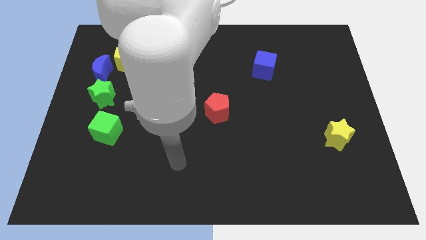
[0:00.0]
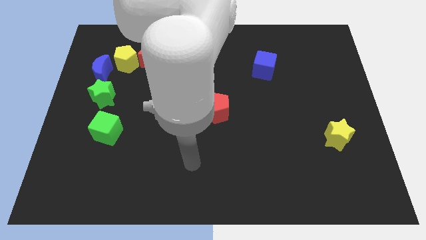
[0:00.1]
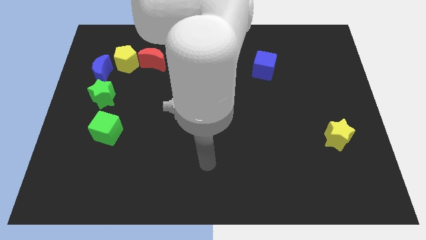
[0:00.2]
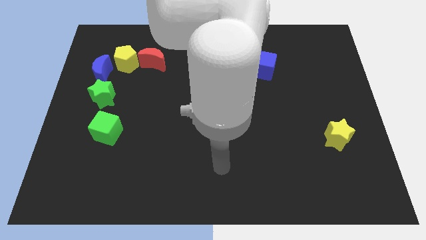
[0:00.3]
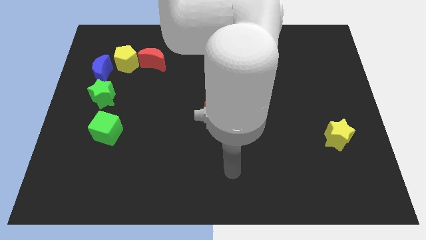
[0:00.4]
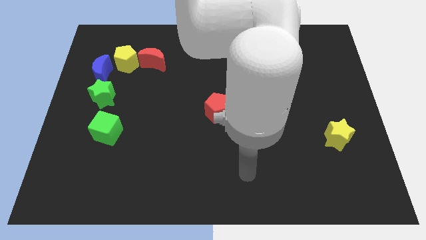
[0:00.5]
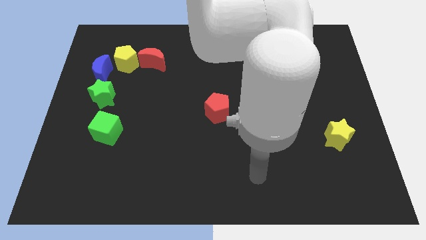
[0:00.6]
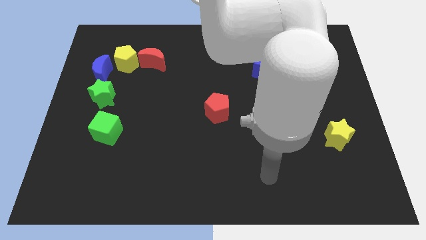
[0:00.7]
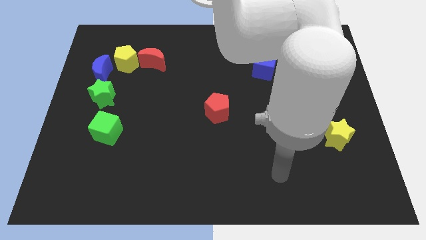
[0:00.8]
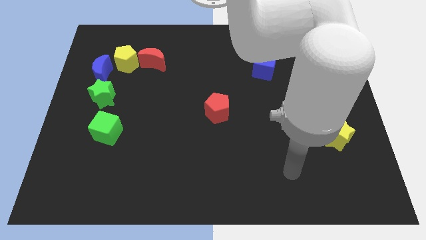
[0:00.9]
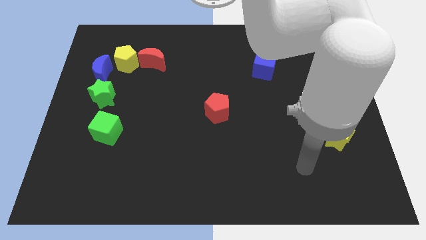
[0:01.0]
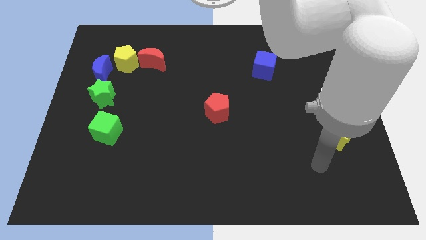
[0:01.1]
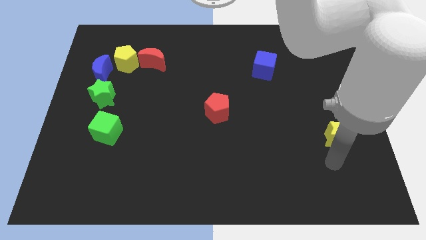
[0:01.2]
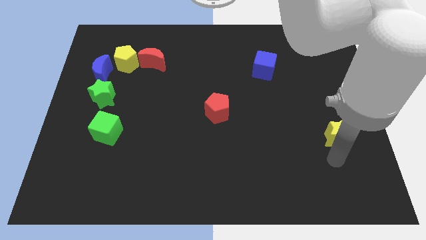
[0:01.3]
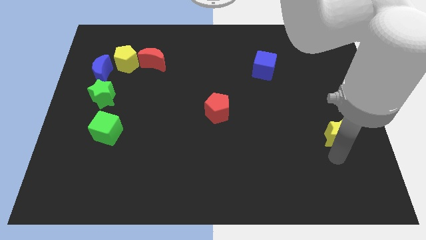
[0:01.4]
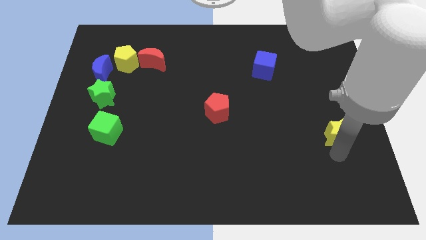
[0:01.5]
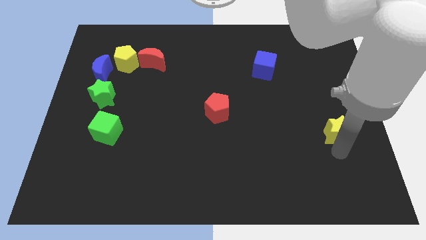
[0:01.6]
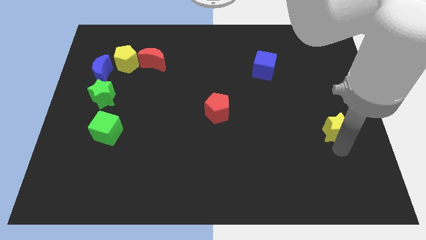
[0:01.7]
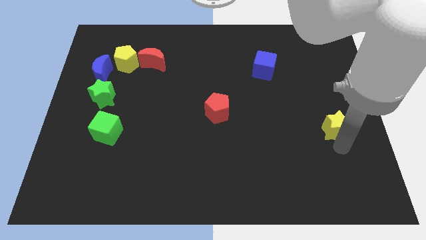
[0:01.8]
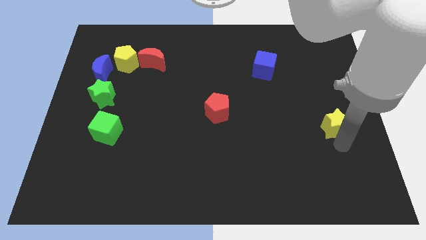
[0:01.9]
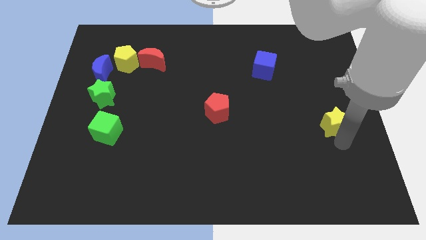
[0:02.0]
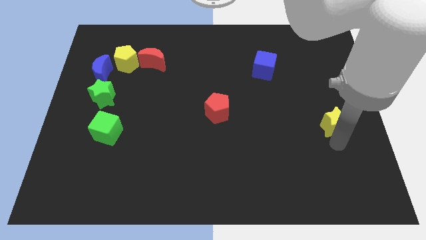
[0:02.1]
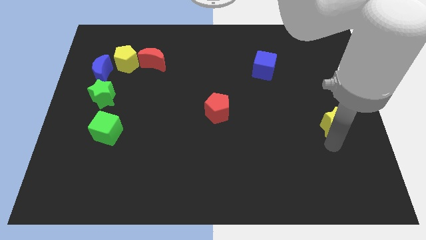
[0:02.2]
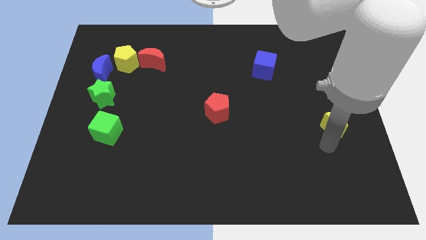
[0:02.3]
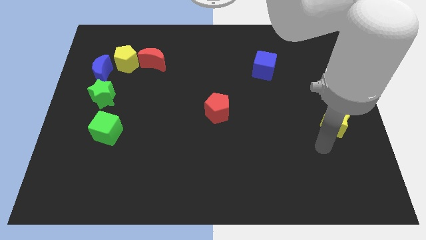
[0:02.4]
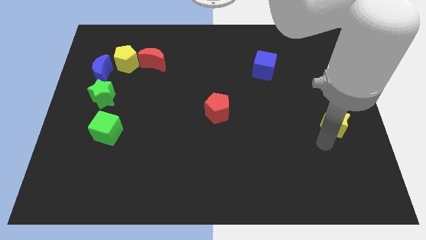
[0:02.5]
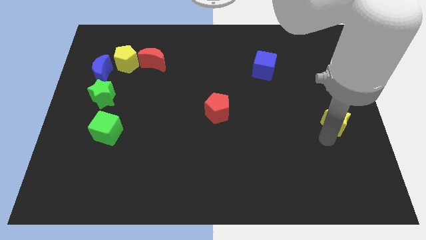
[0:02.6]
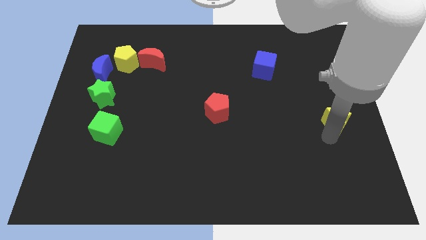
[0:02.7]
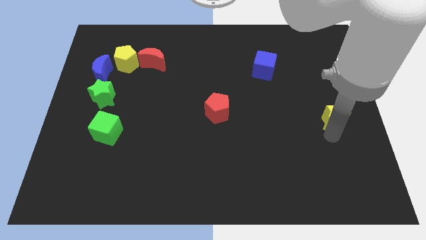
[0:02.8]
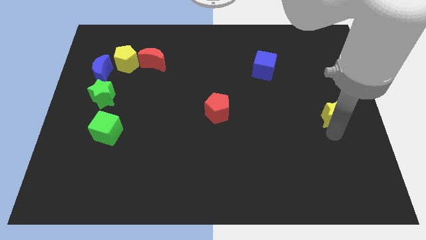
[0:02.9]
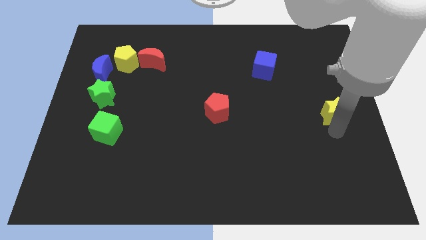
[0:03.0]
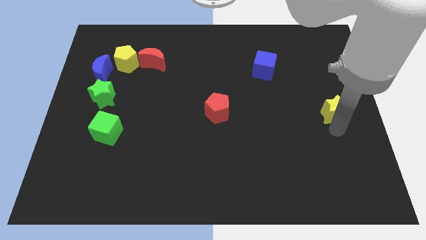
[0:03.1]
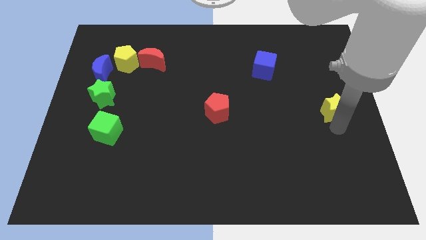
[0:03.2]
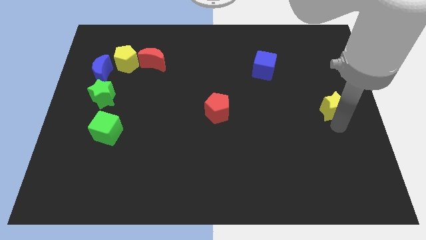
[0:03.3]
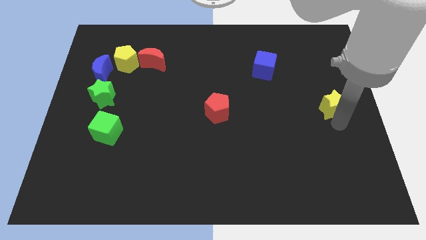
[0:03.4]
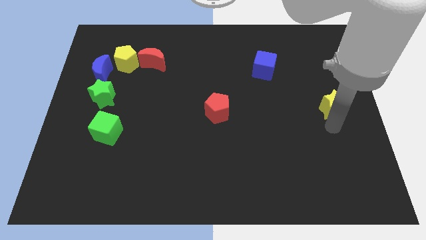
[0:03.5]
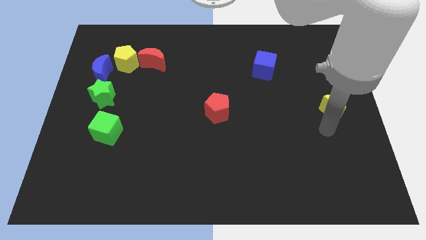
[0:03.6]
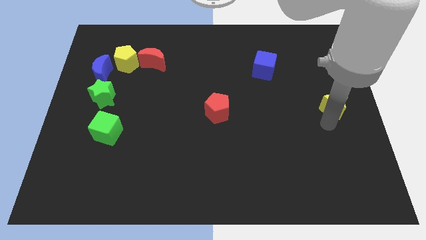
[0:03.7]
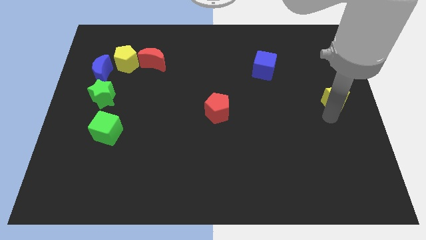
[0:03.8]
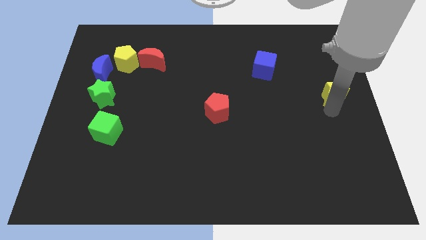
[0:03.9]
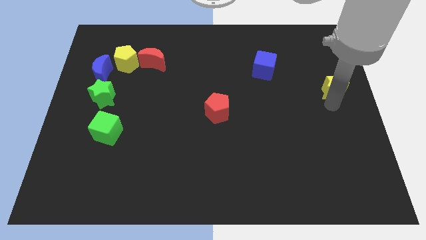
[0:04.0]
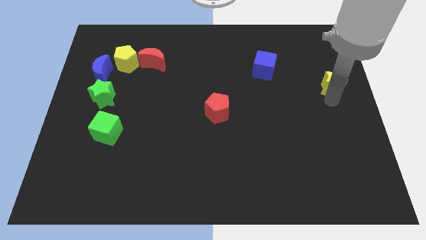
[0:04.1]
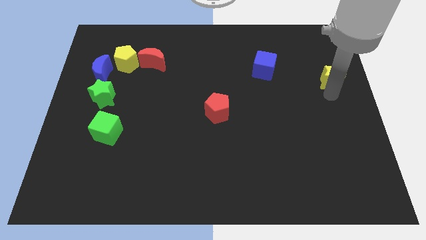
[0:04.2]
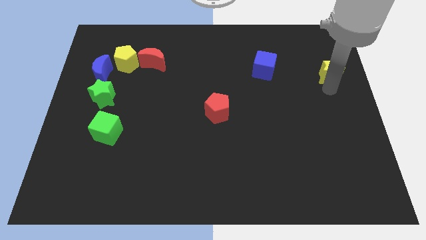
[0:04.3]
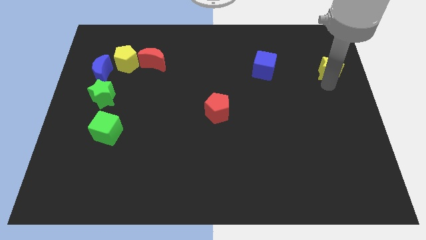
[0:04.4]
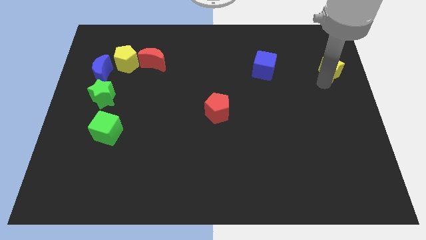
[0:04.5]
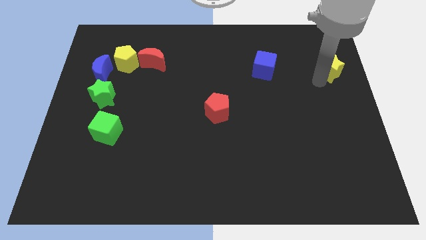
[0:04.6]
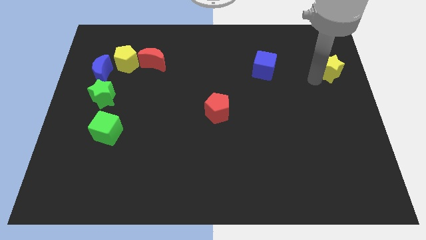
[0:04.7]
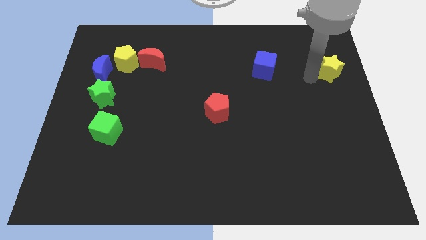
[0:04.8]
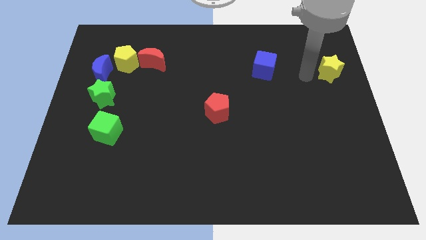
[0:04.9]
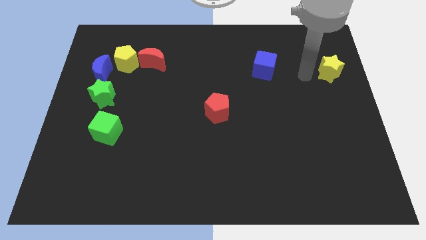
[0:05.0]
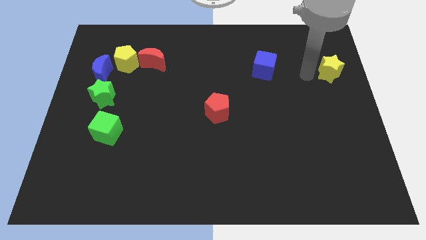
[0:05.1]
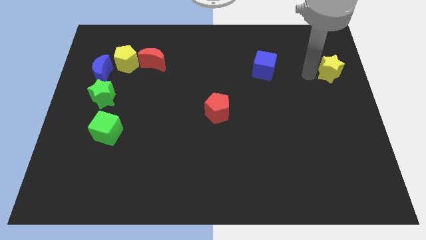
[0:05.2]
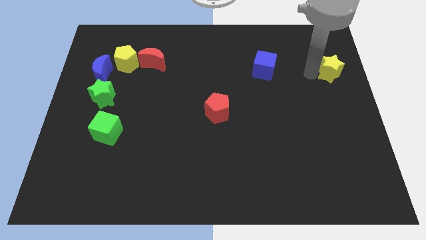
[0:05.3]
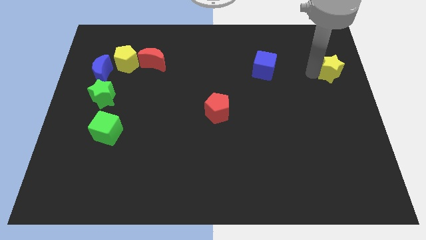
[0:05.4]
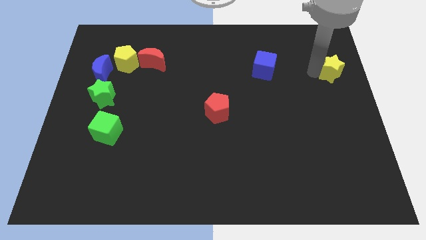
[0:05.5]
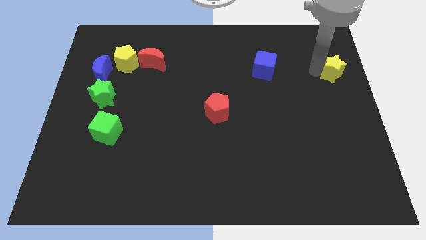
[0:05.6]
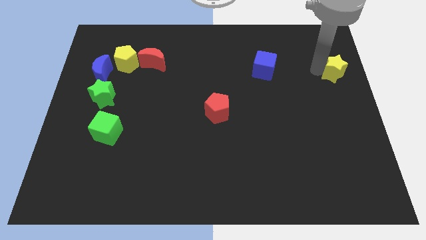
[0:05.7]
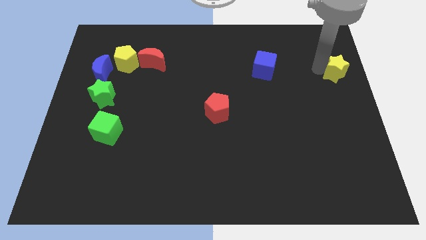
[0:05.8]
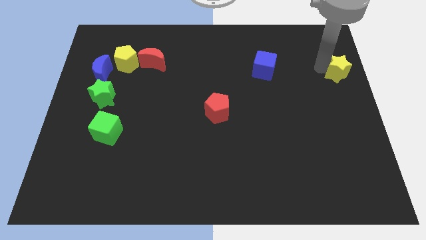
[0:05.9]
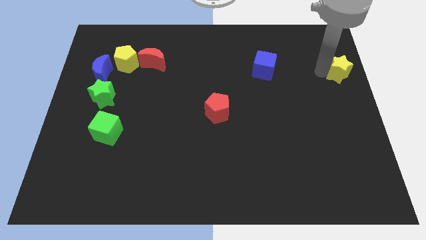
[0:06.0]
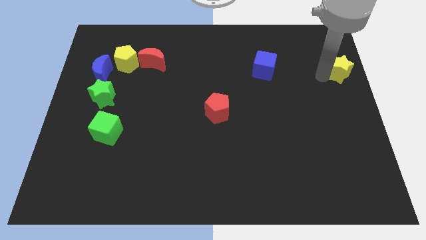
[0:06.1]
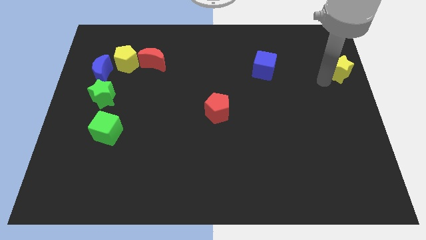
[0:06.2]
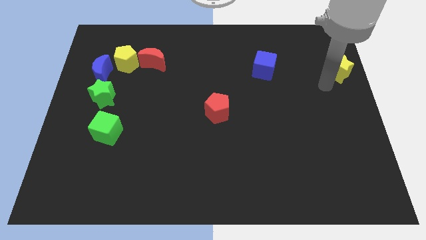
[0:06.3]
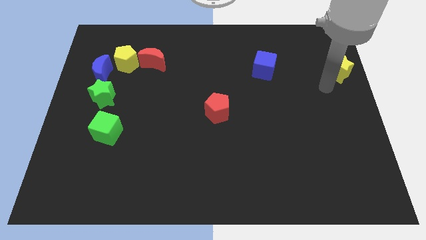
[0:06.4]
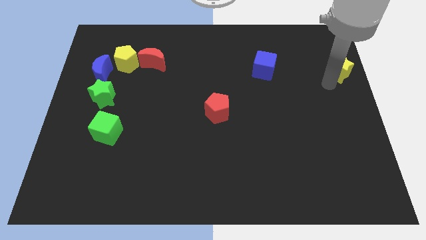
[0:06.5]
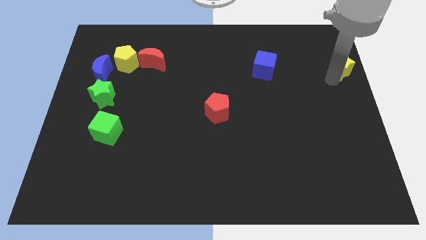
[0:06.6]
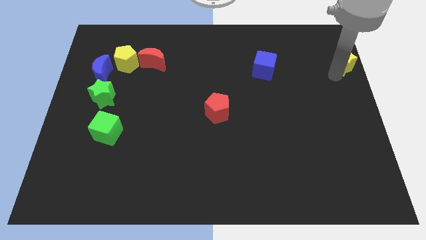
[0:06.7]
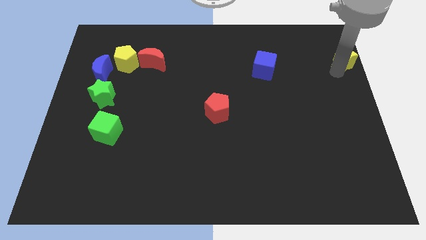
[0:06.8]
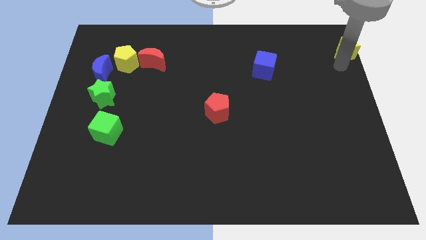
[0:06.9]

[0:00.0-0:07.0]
put the yellow star to the top right

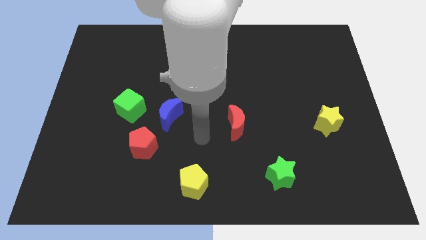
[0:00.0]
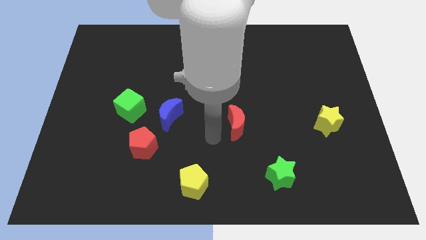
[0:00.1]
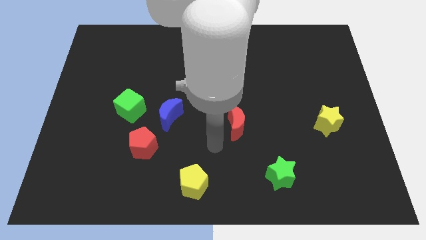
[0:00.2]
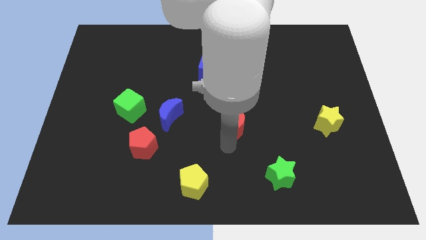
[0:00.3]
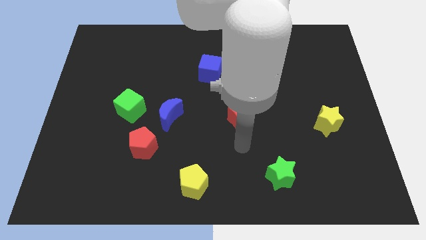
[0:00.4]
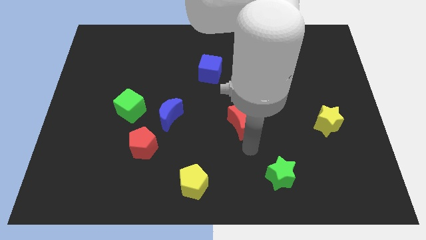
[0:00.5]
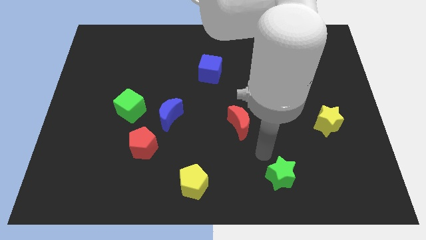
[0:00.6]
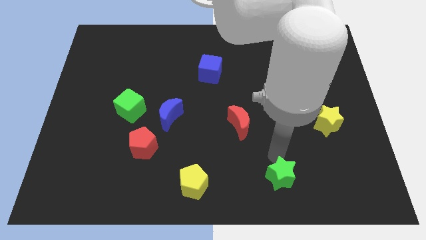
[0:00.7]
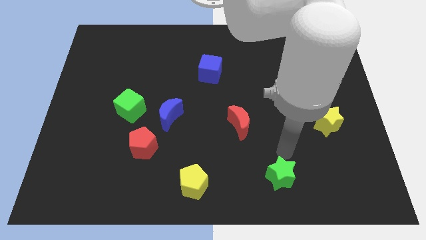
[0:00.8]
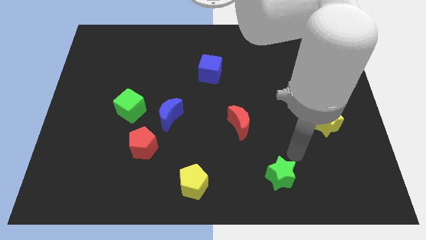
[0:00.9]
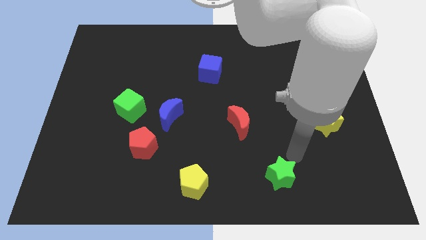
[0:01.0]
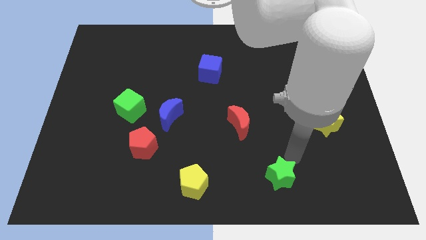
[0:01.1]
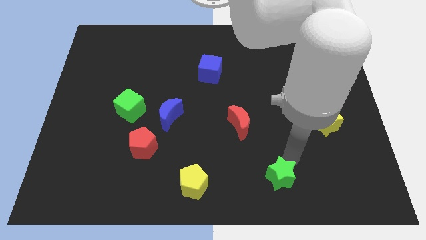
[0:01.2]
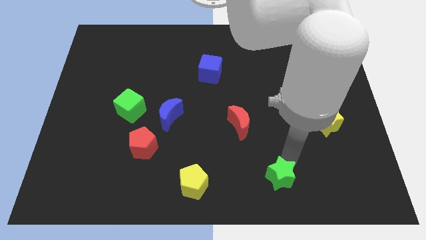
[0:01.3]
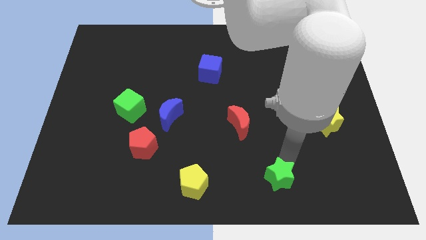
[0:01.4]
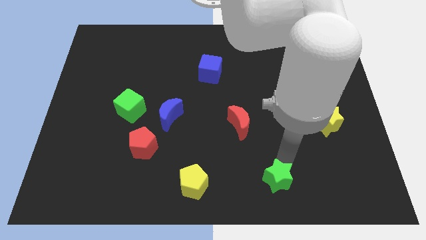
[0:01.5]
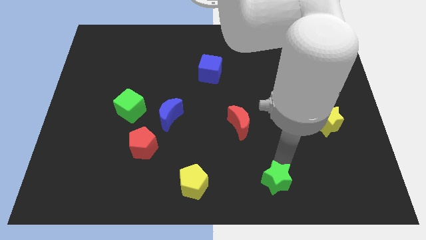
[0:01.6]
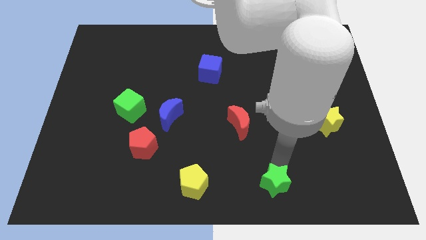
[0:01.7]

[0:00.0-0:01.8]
put the green star to the bottom
